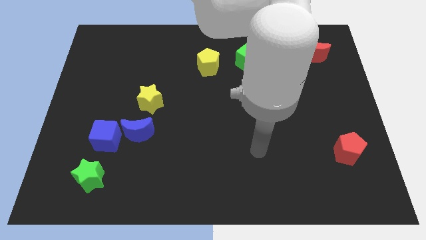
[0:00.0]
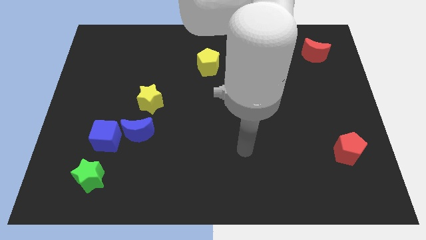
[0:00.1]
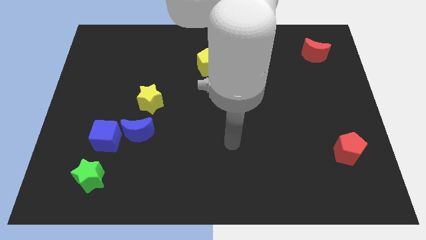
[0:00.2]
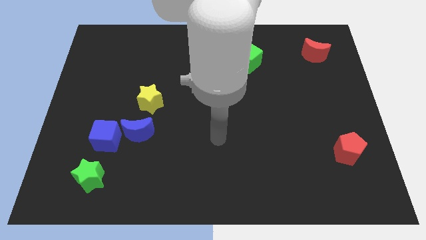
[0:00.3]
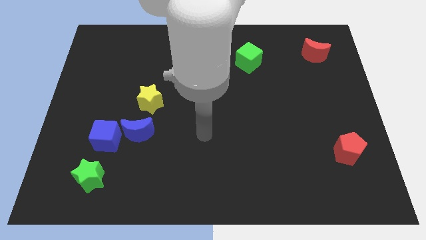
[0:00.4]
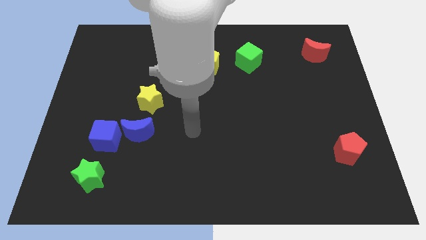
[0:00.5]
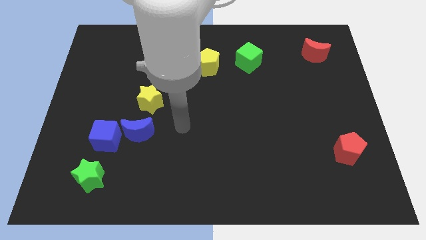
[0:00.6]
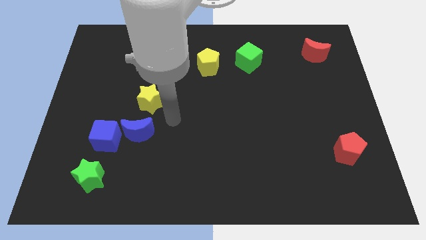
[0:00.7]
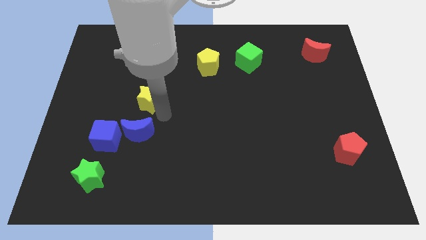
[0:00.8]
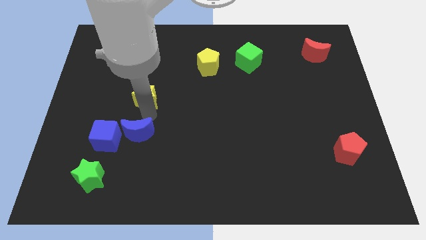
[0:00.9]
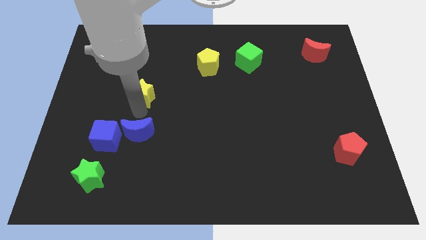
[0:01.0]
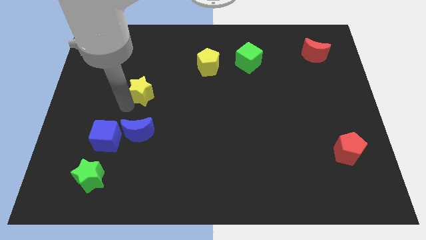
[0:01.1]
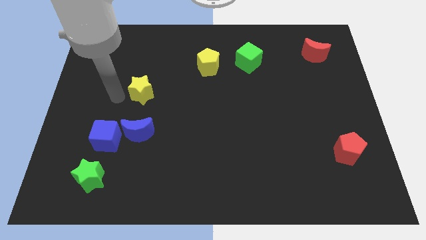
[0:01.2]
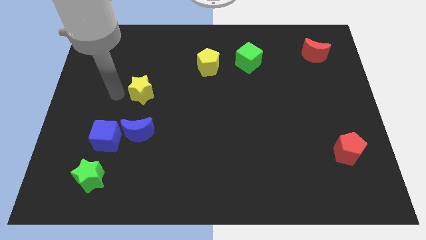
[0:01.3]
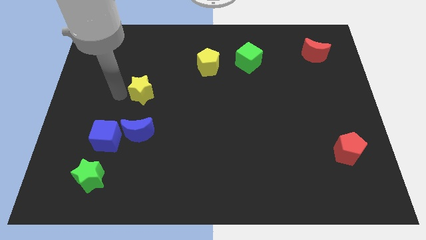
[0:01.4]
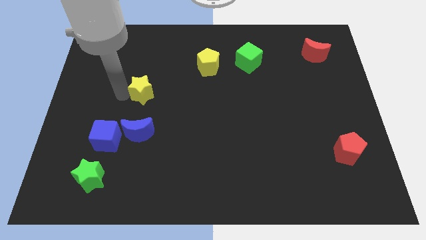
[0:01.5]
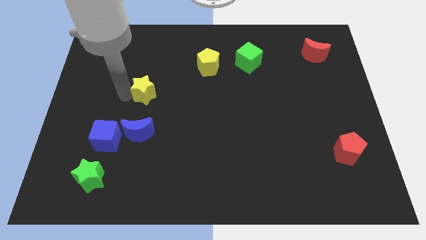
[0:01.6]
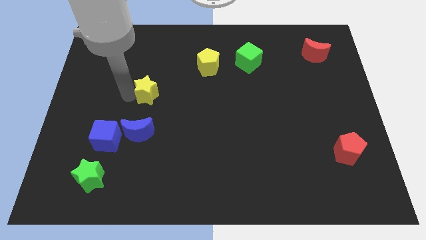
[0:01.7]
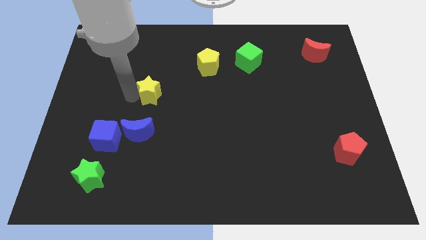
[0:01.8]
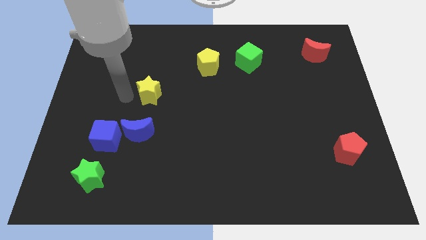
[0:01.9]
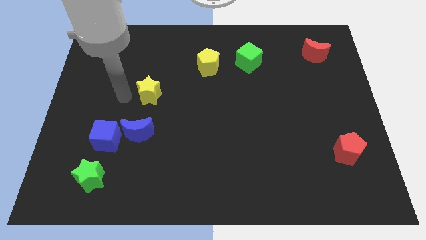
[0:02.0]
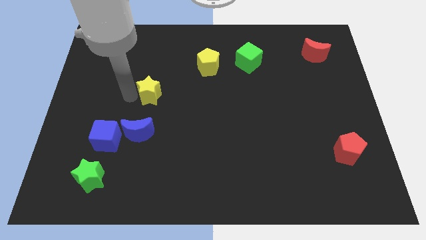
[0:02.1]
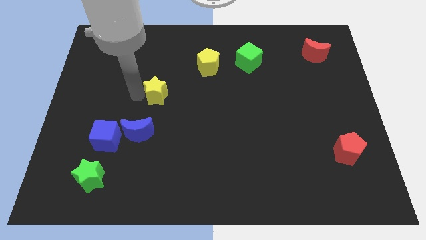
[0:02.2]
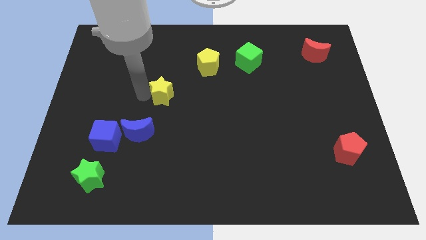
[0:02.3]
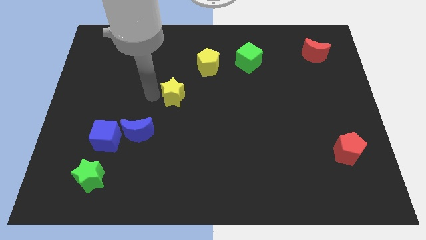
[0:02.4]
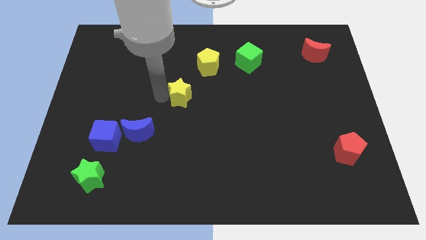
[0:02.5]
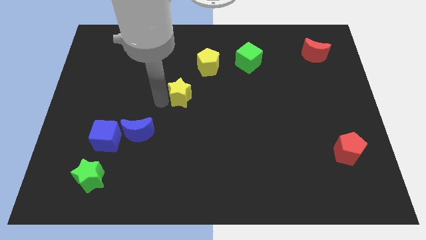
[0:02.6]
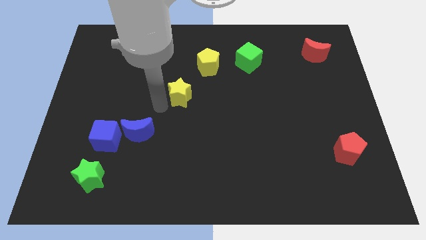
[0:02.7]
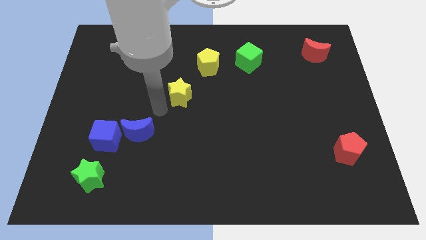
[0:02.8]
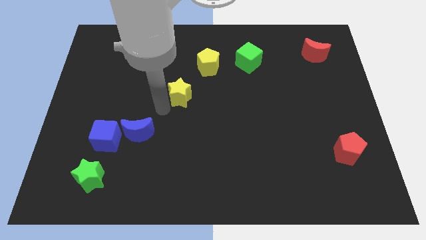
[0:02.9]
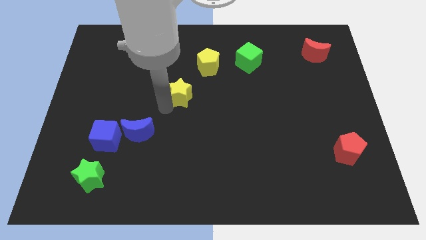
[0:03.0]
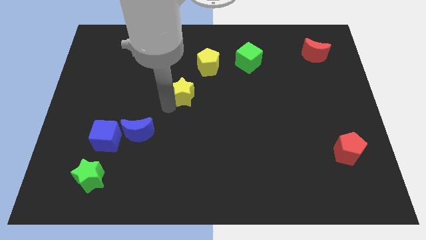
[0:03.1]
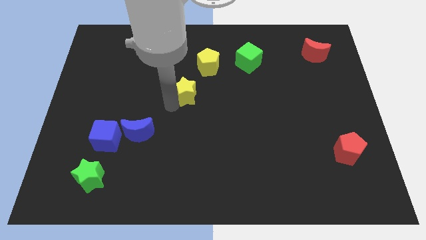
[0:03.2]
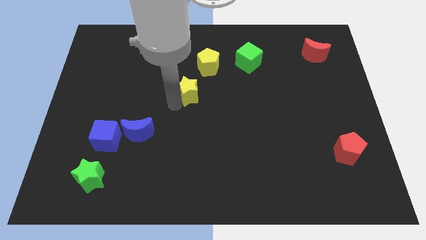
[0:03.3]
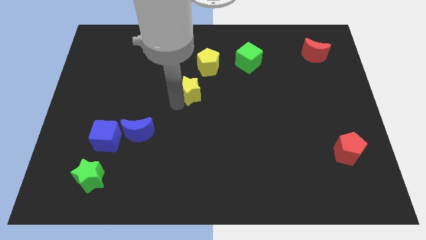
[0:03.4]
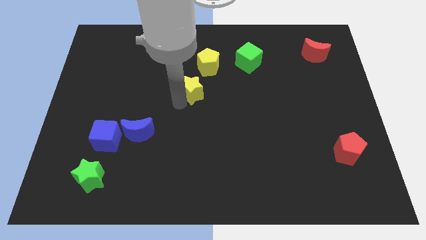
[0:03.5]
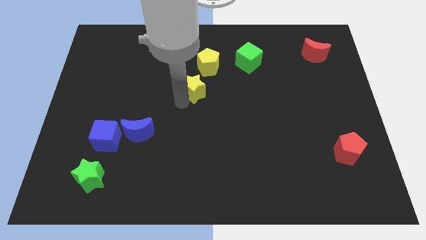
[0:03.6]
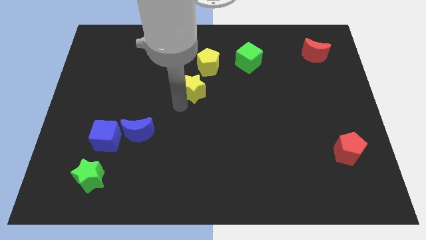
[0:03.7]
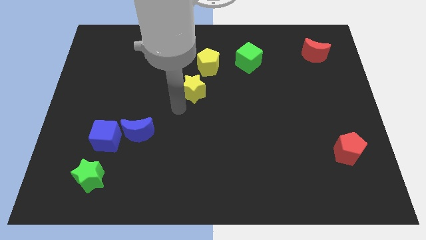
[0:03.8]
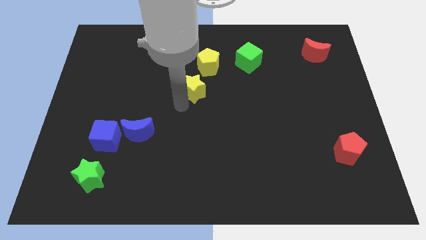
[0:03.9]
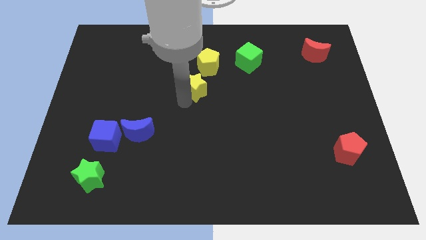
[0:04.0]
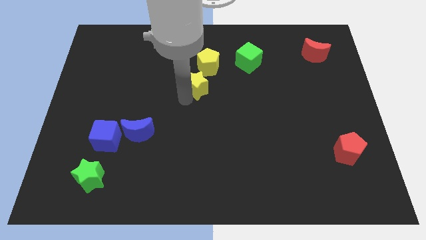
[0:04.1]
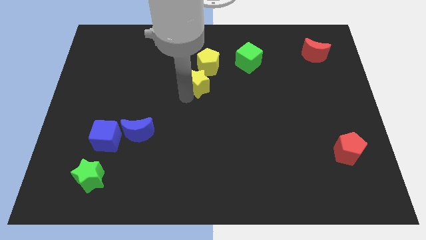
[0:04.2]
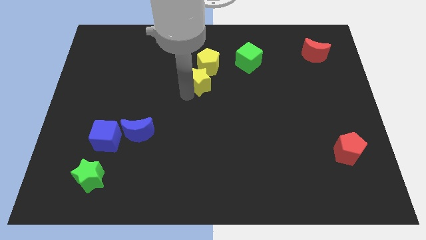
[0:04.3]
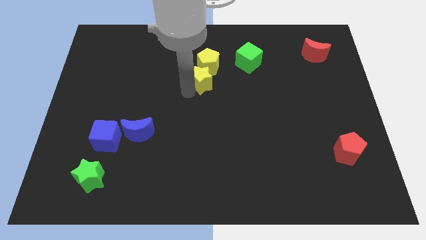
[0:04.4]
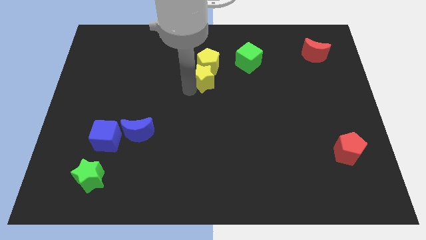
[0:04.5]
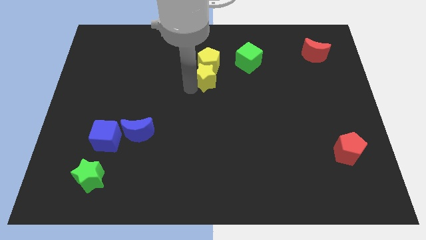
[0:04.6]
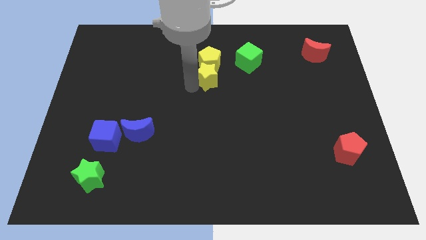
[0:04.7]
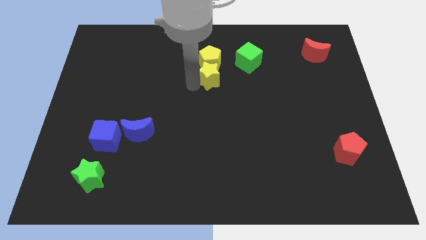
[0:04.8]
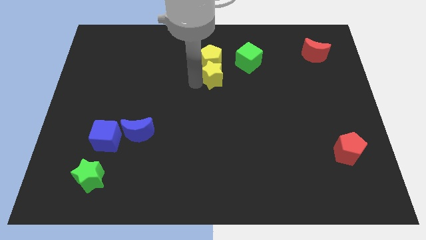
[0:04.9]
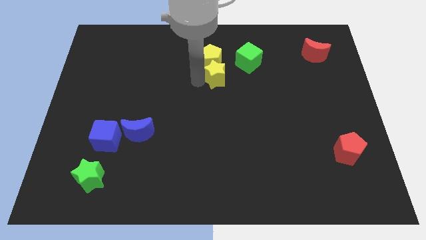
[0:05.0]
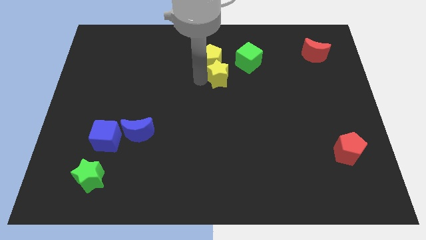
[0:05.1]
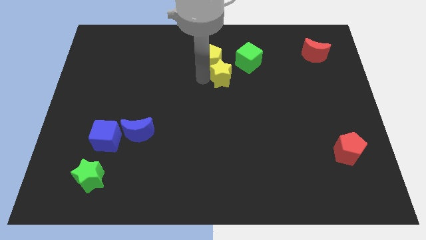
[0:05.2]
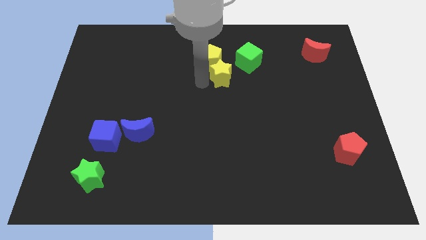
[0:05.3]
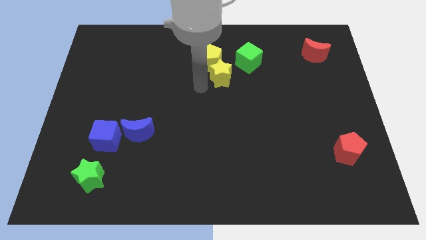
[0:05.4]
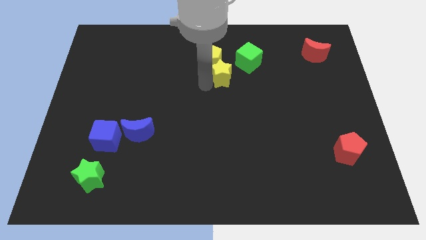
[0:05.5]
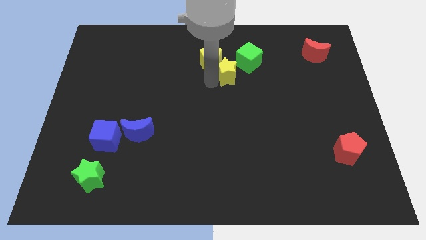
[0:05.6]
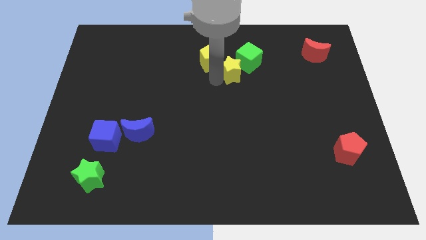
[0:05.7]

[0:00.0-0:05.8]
push the yellow star next to the green cube

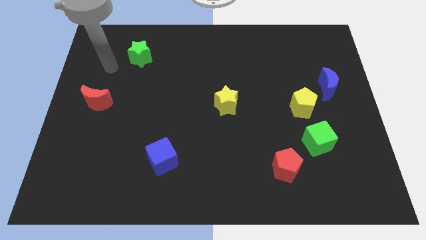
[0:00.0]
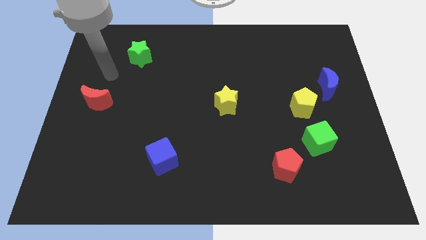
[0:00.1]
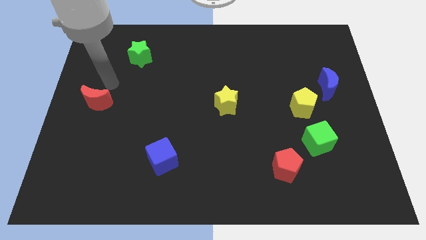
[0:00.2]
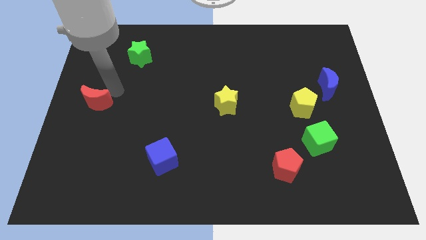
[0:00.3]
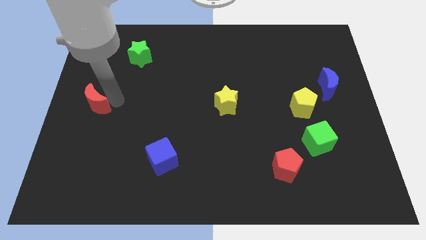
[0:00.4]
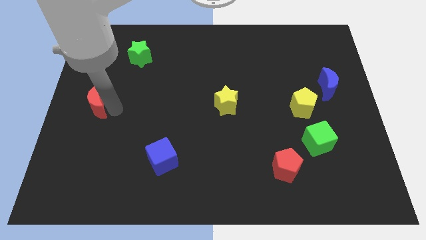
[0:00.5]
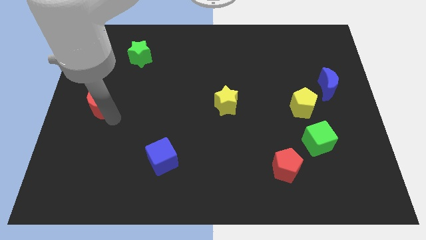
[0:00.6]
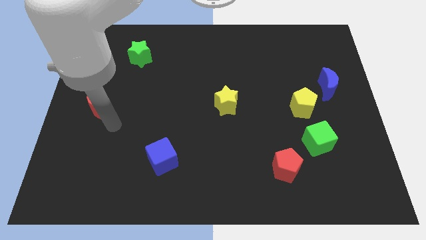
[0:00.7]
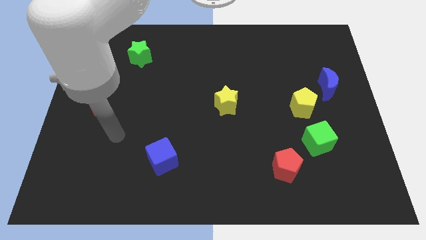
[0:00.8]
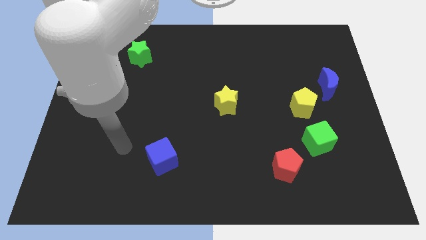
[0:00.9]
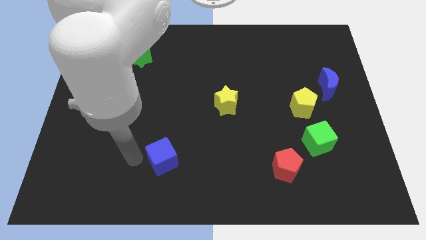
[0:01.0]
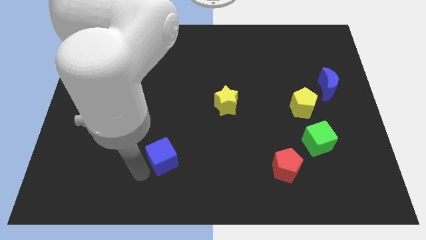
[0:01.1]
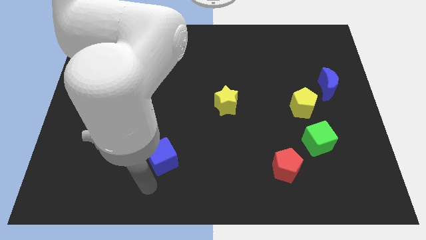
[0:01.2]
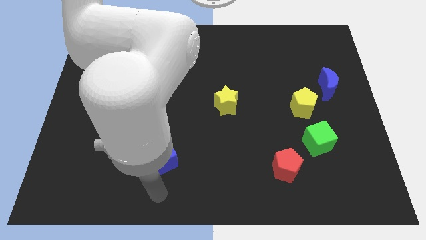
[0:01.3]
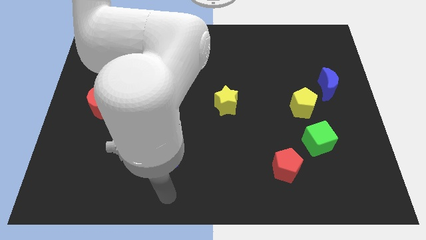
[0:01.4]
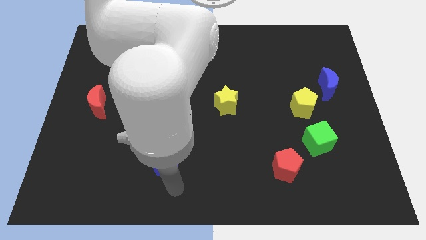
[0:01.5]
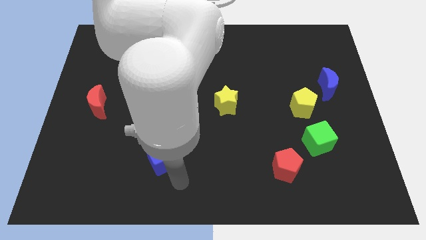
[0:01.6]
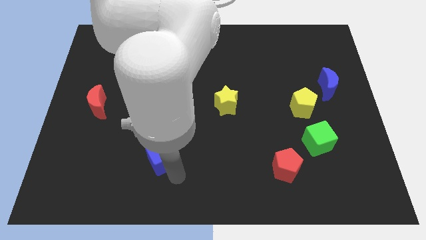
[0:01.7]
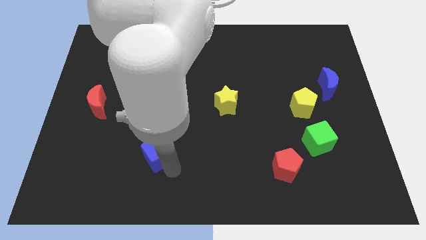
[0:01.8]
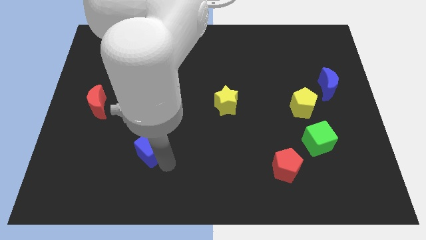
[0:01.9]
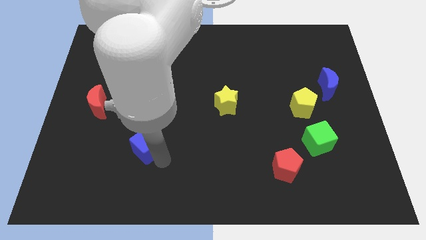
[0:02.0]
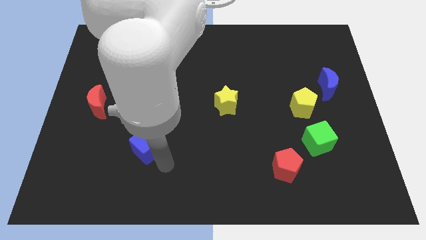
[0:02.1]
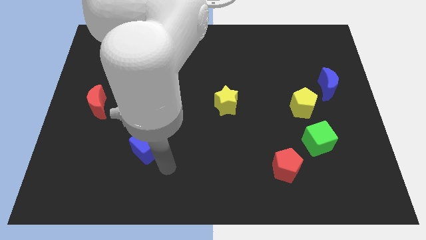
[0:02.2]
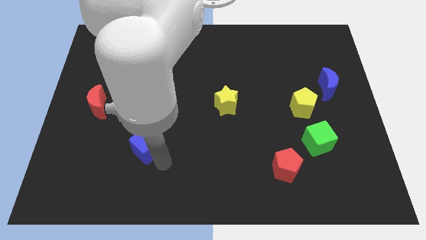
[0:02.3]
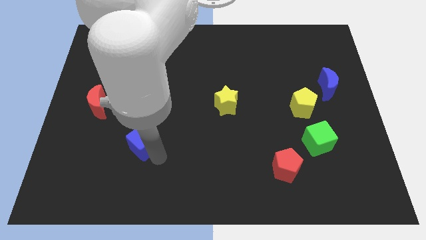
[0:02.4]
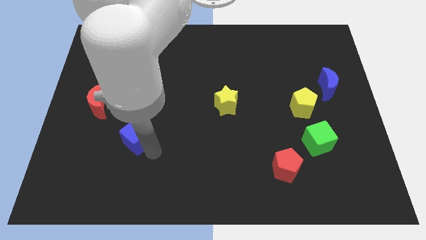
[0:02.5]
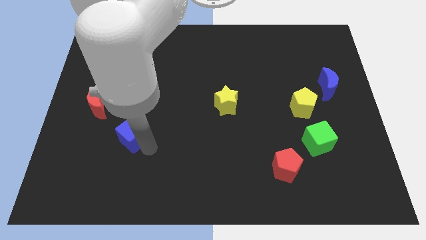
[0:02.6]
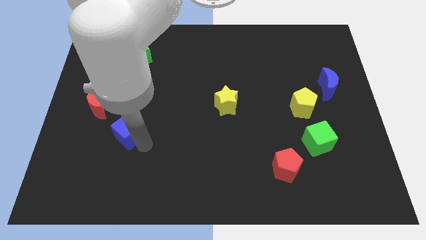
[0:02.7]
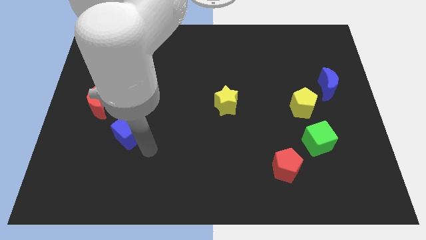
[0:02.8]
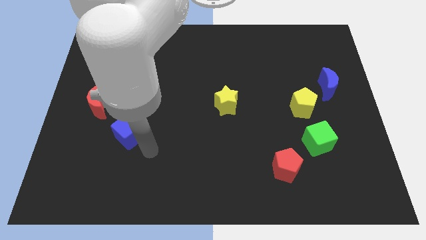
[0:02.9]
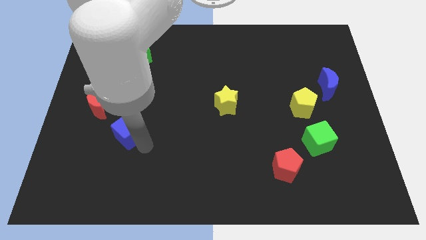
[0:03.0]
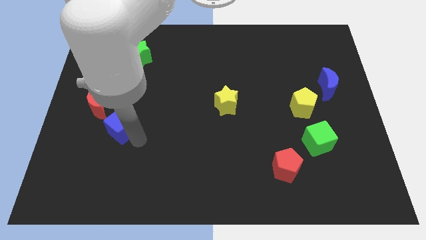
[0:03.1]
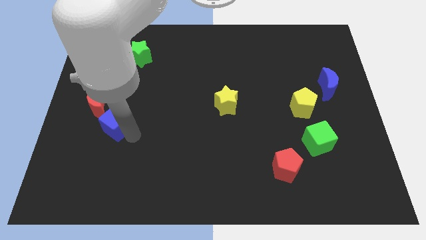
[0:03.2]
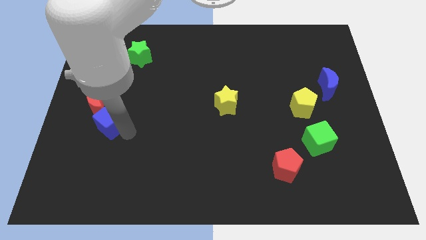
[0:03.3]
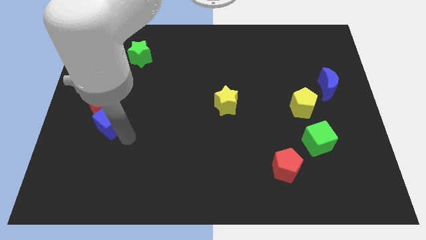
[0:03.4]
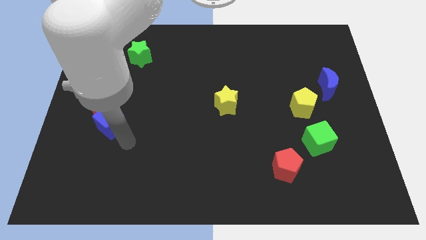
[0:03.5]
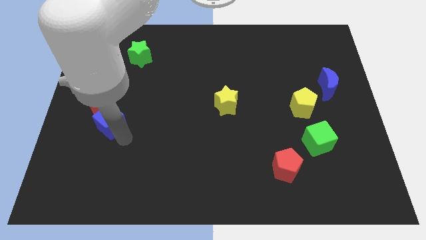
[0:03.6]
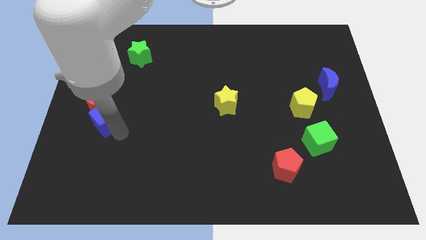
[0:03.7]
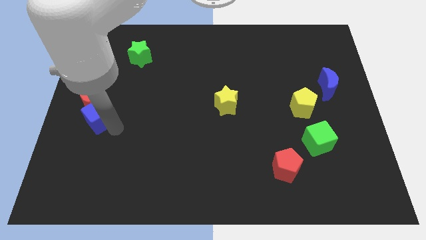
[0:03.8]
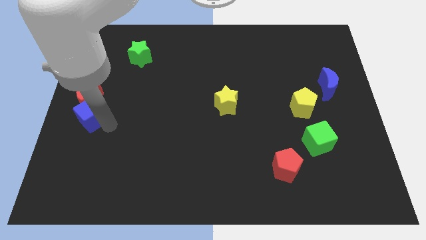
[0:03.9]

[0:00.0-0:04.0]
put the blue cube towards the red moon
